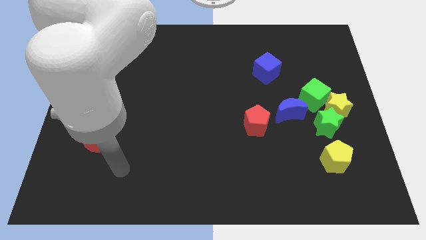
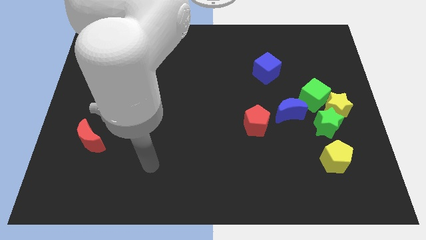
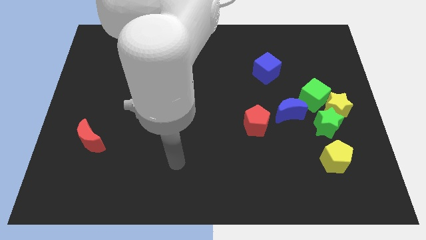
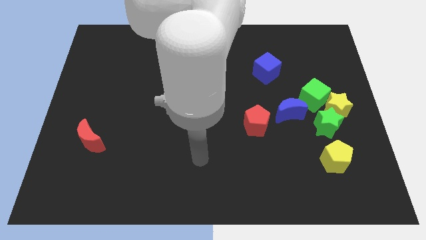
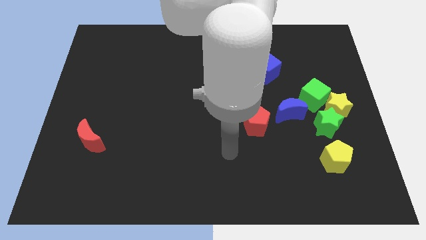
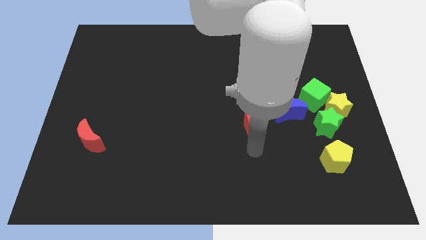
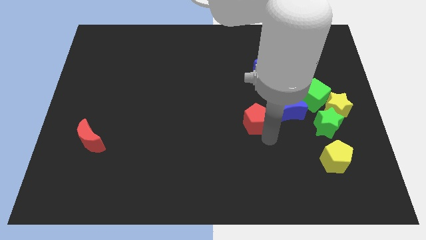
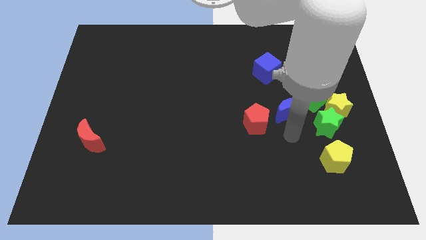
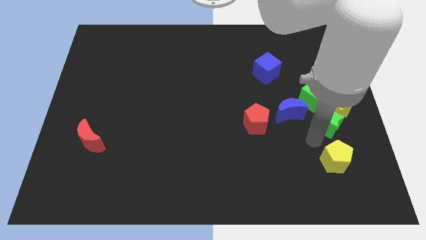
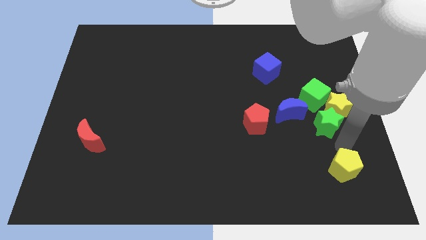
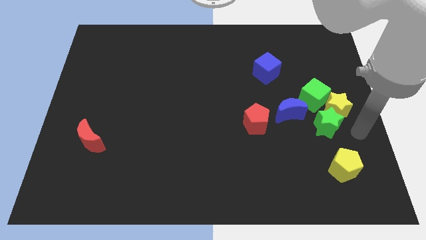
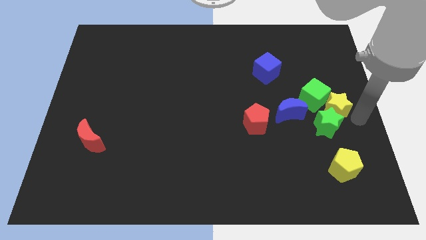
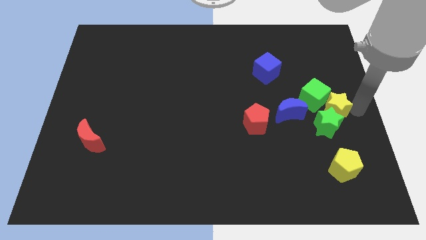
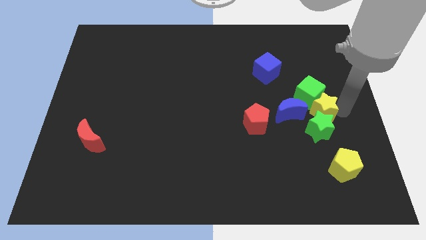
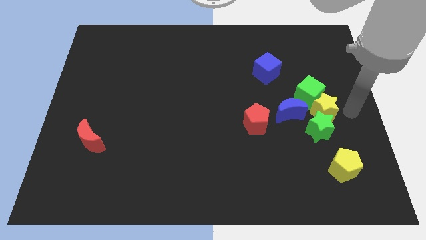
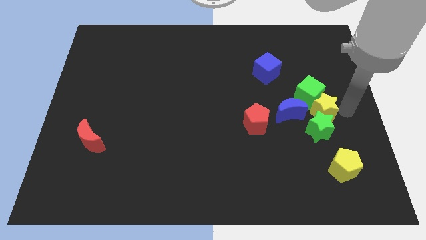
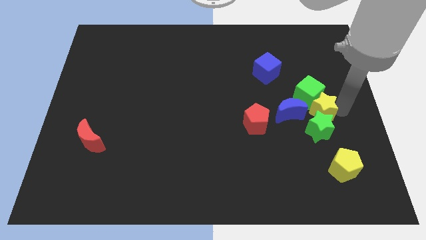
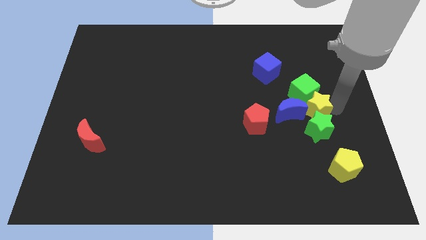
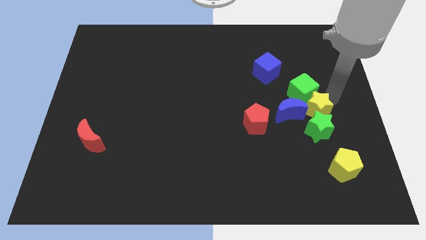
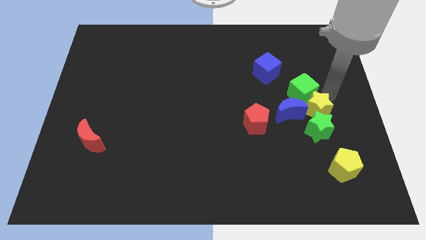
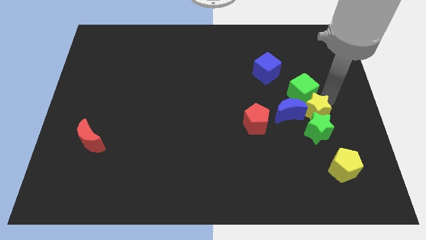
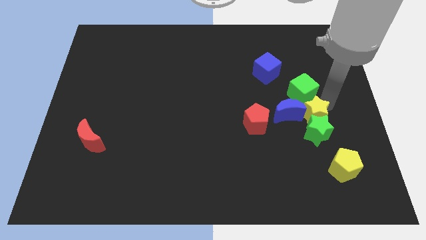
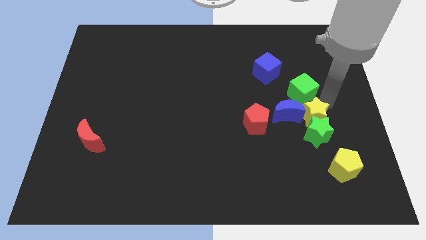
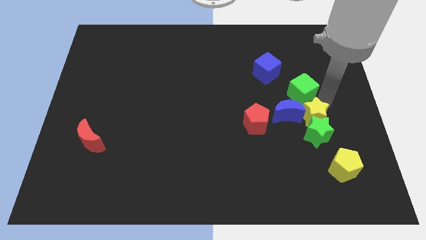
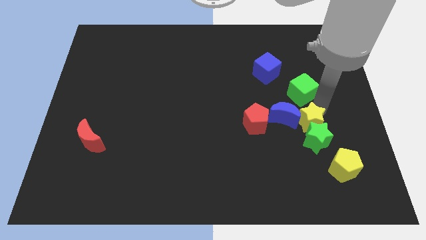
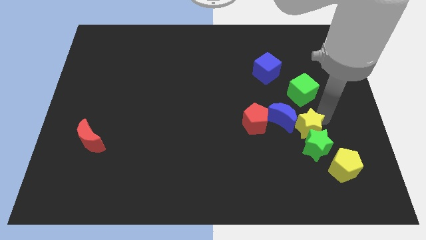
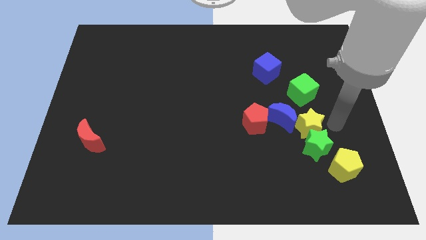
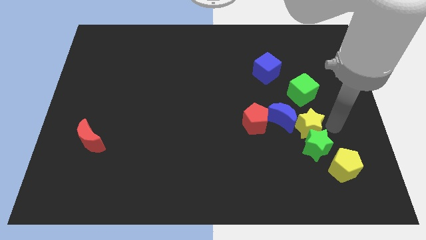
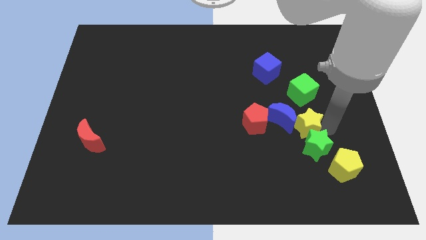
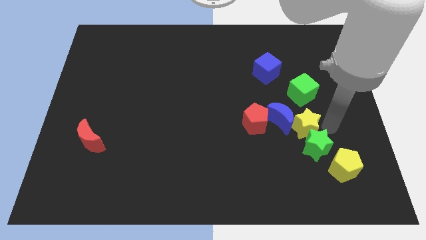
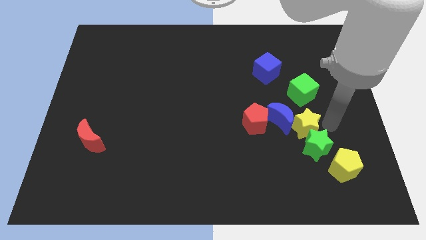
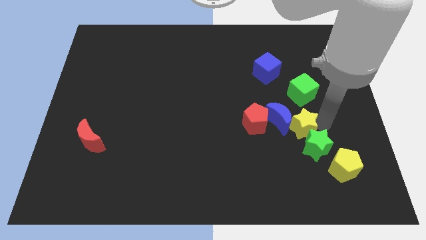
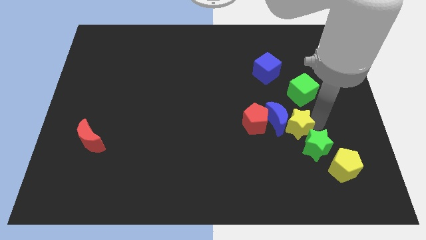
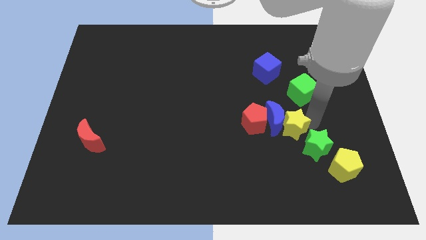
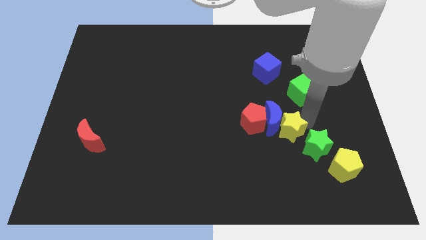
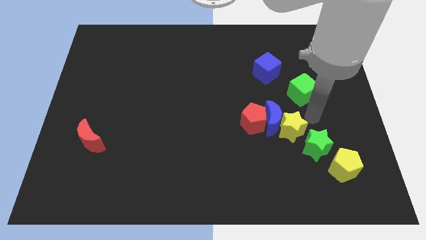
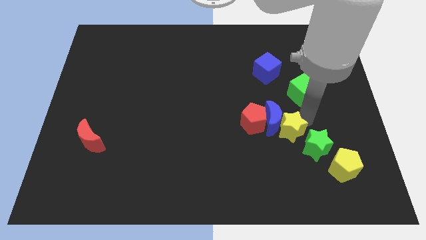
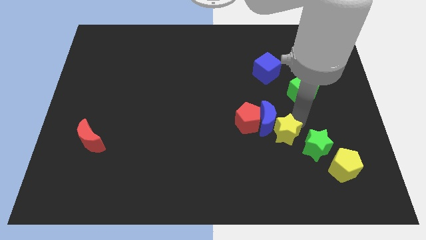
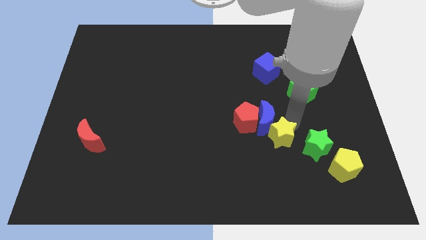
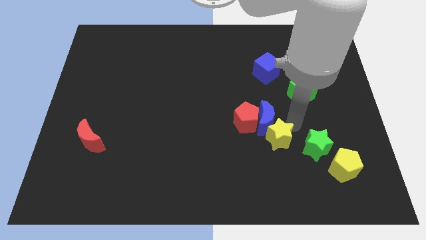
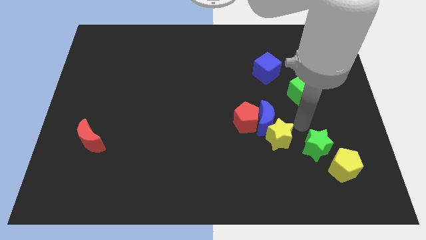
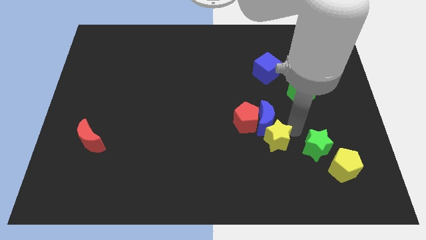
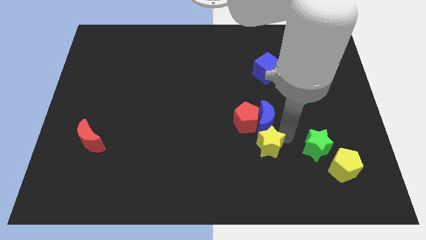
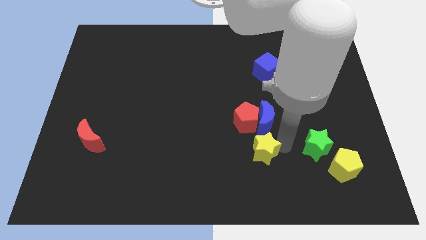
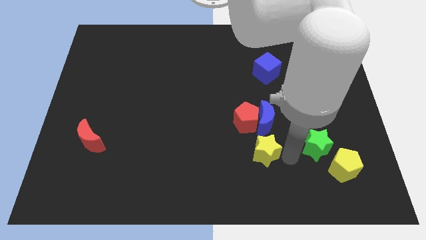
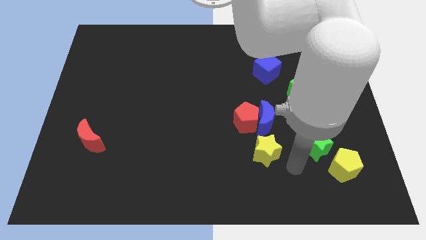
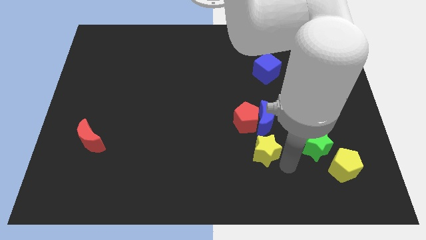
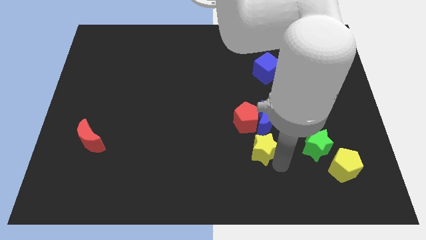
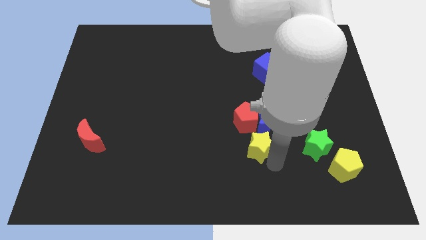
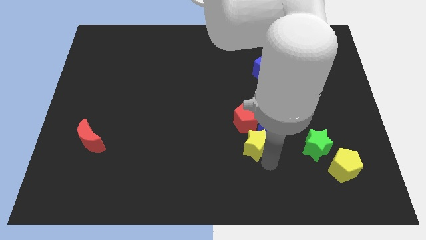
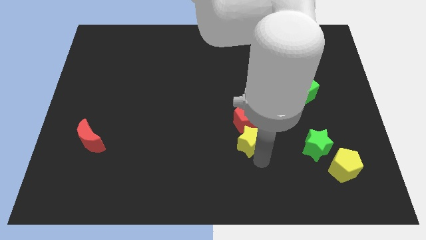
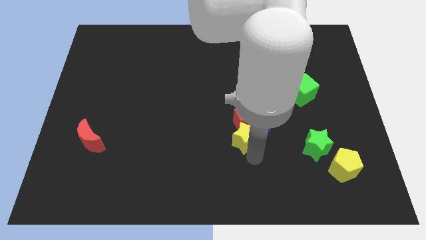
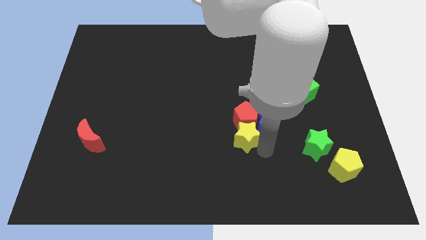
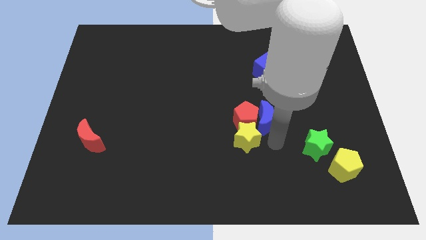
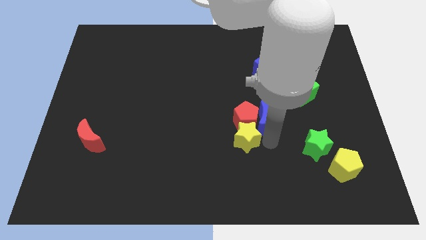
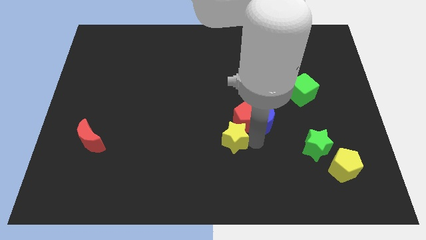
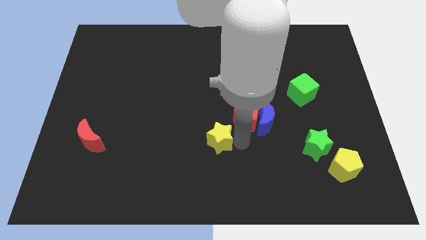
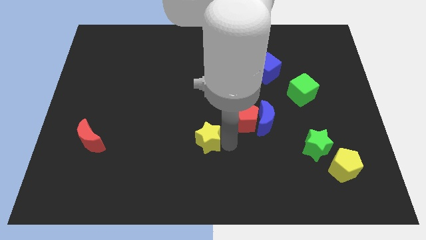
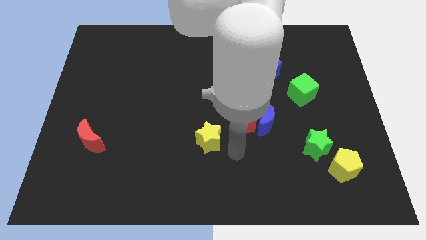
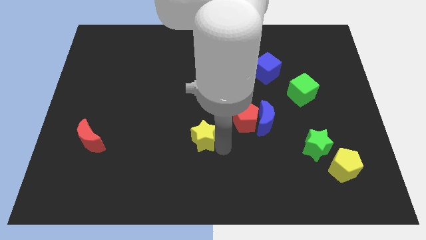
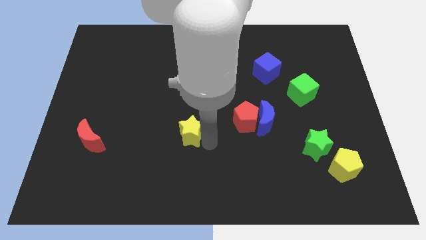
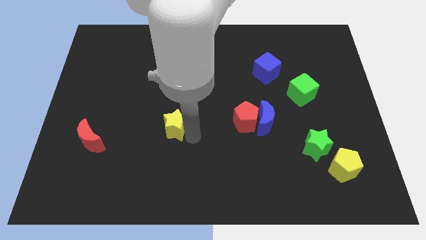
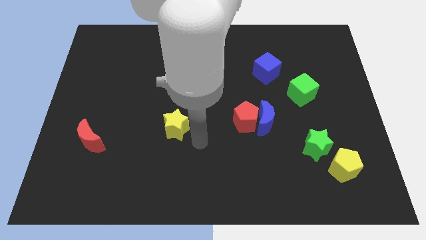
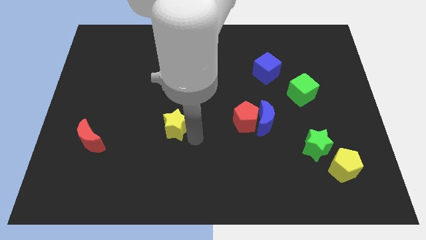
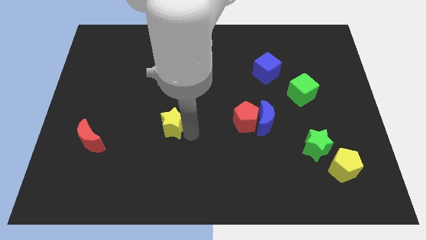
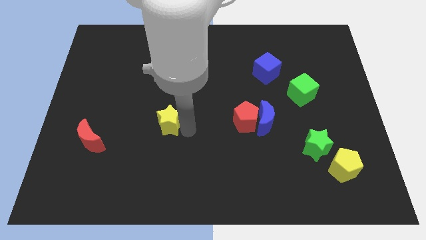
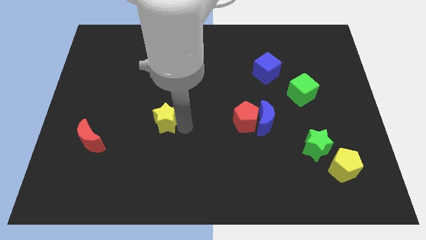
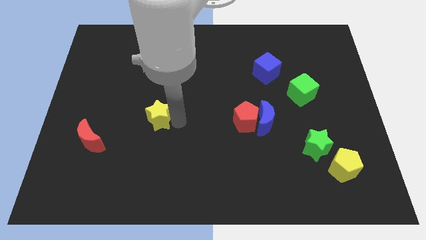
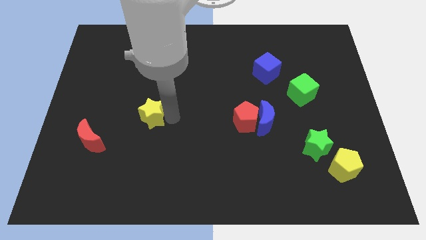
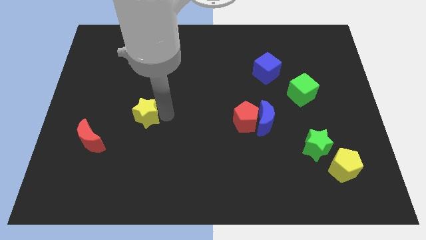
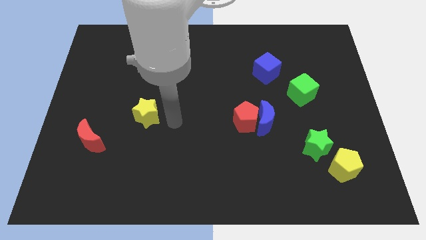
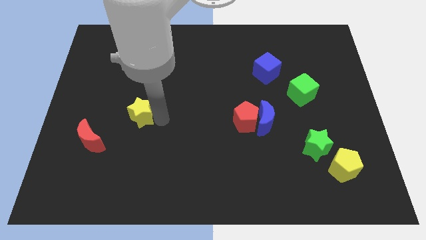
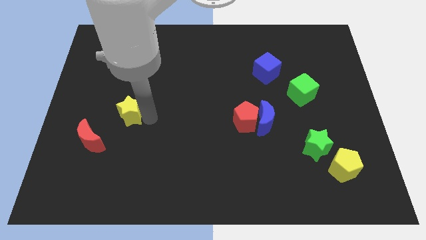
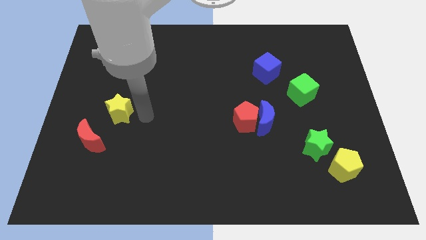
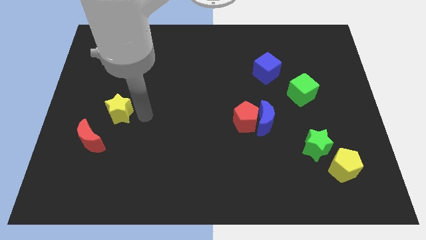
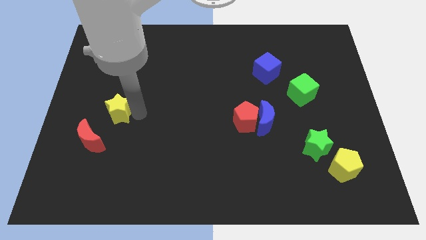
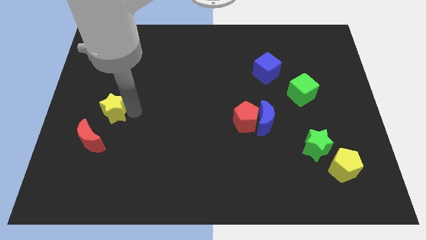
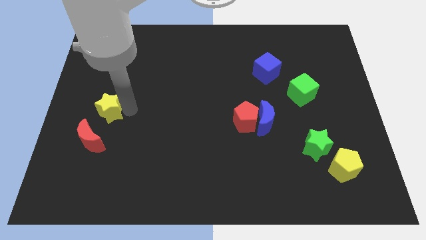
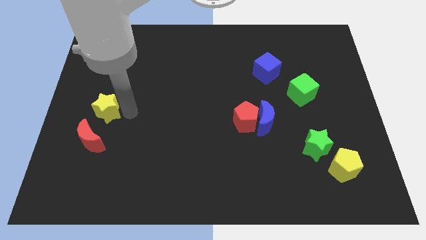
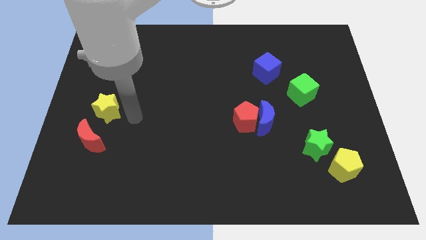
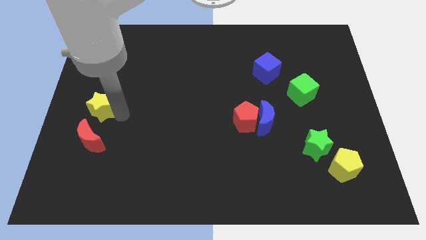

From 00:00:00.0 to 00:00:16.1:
move the yellow star to the center left

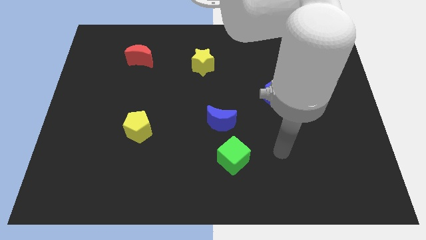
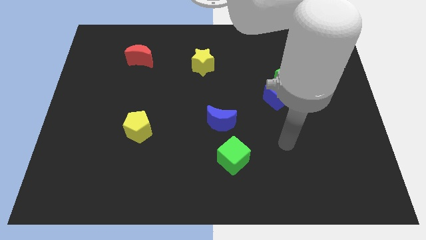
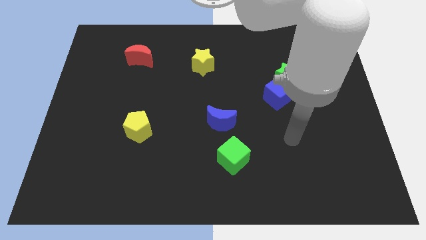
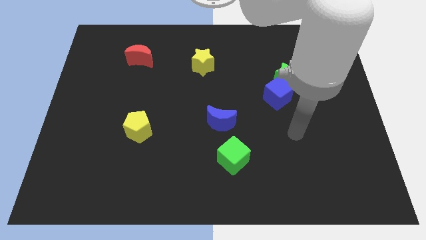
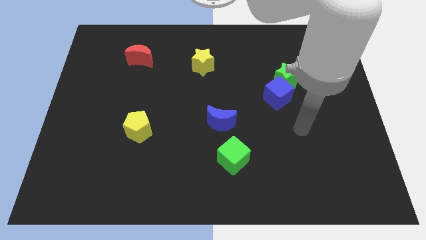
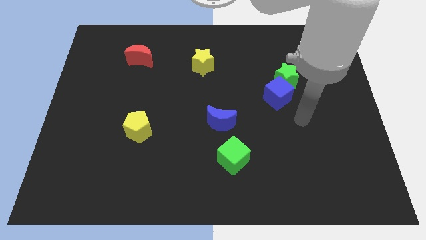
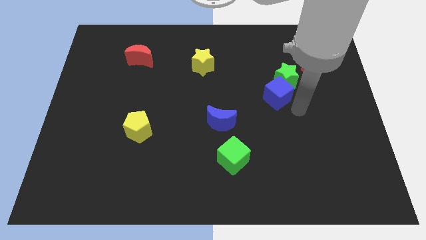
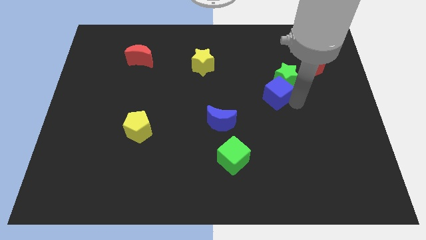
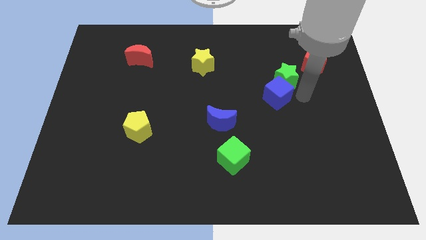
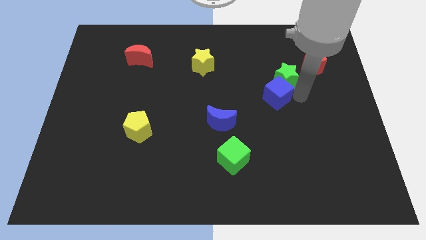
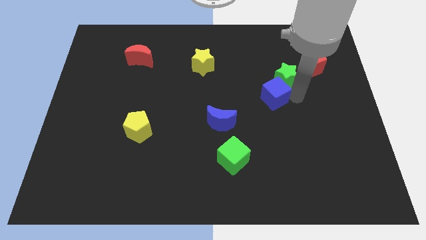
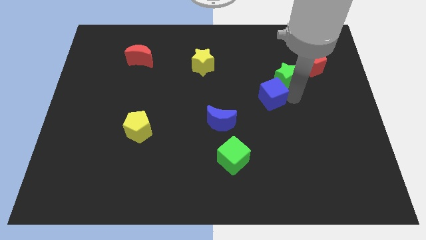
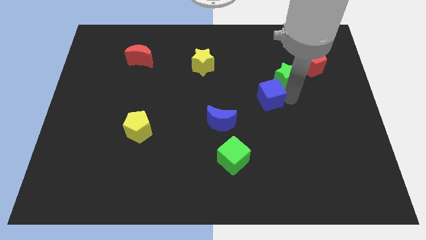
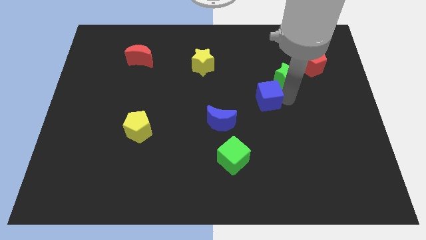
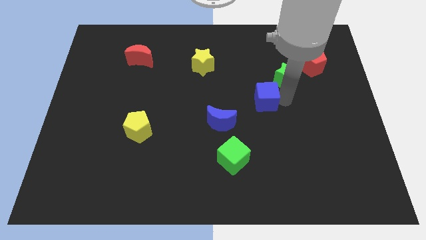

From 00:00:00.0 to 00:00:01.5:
push the blue cube to the center
